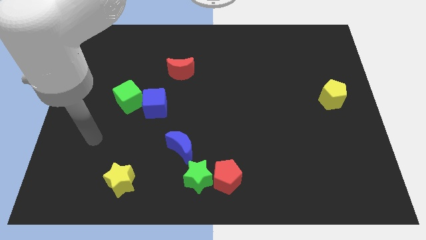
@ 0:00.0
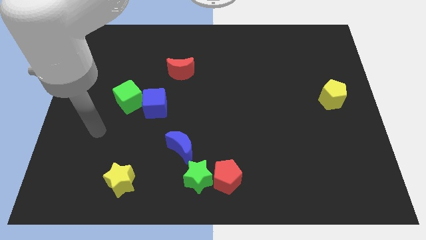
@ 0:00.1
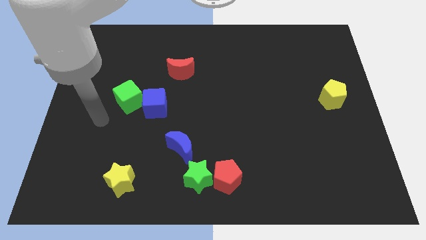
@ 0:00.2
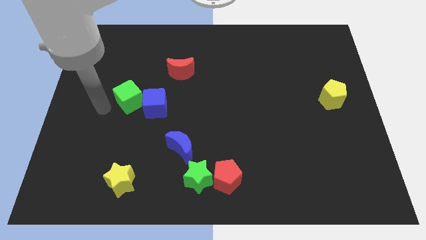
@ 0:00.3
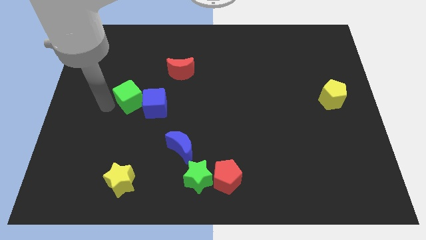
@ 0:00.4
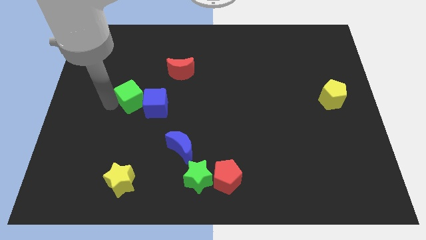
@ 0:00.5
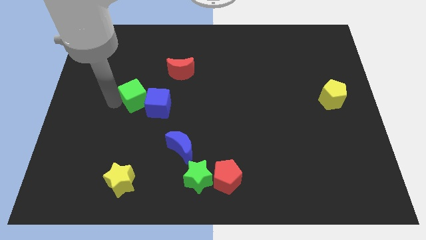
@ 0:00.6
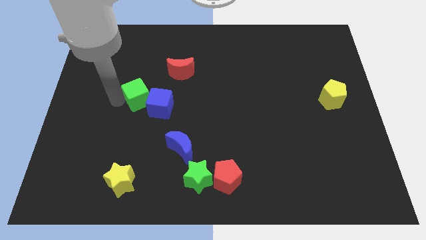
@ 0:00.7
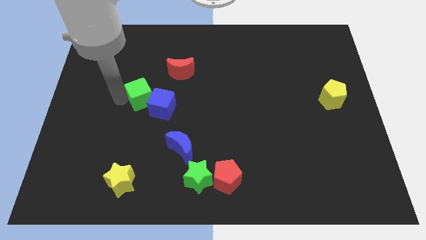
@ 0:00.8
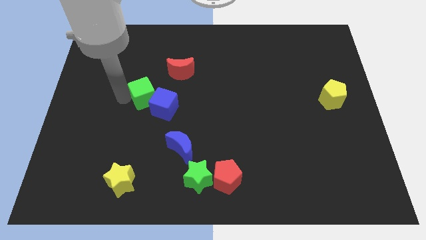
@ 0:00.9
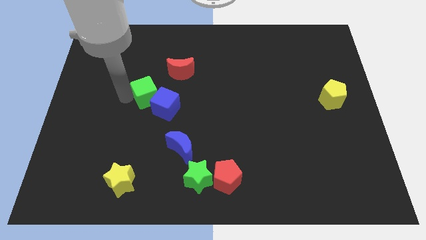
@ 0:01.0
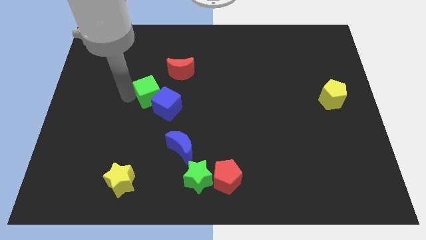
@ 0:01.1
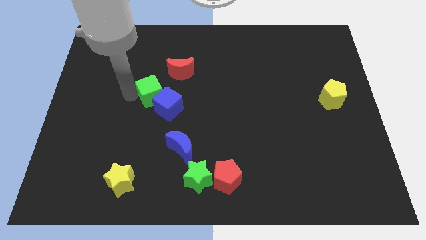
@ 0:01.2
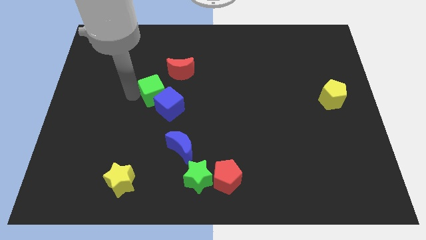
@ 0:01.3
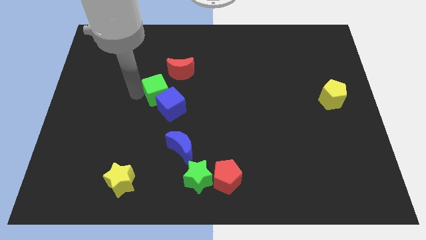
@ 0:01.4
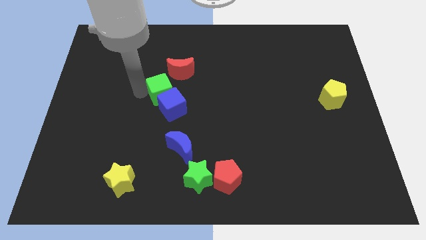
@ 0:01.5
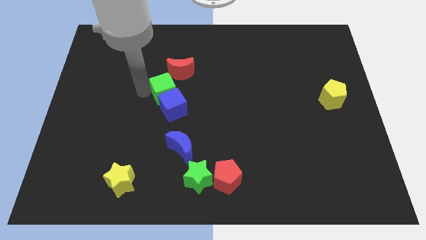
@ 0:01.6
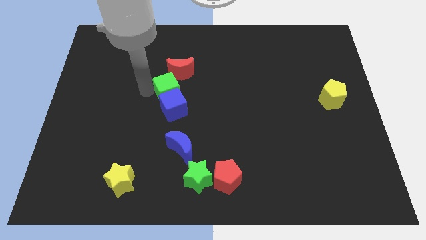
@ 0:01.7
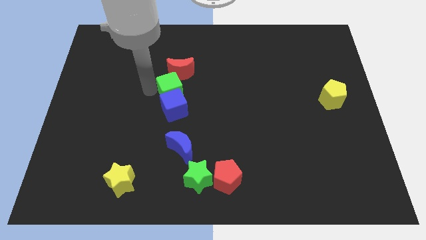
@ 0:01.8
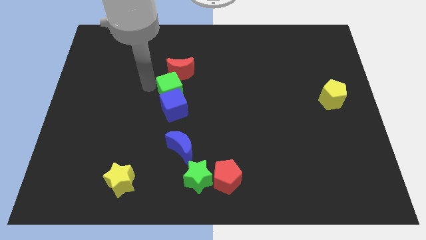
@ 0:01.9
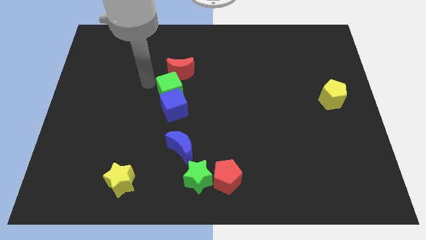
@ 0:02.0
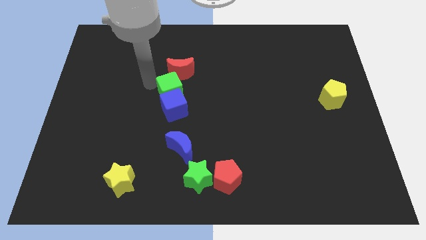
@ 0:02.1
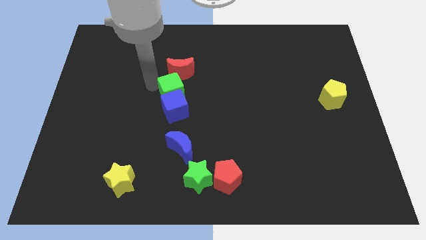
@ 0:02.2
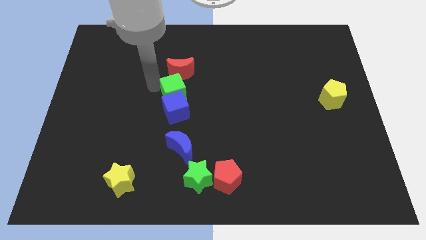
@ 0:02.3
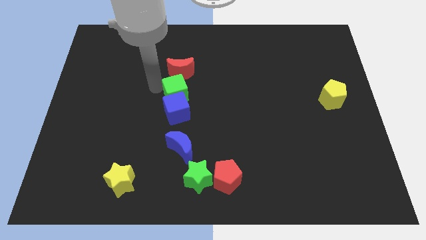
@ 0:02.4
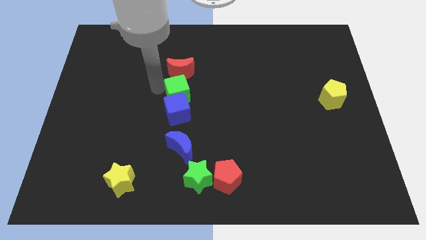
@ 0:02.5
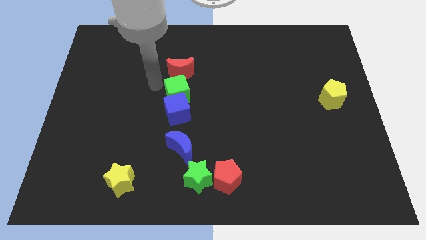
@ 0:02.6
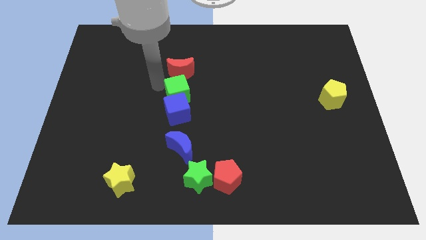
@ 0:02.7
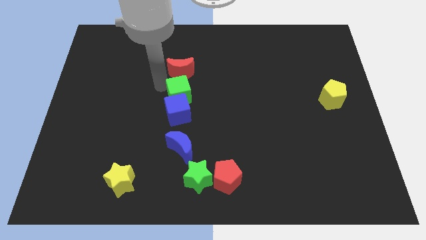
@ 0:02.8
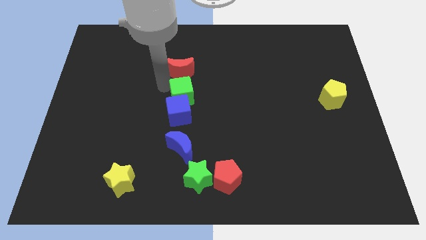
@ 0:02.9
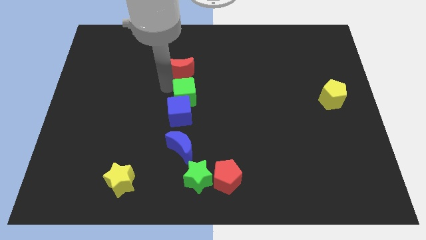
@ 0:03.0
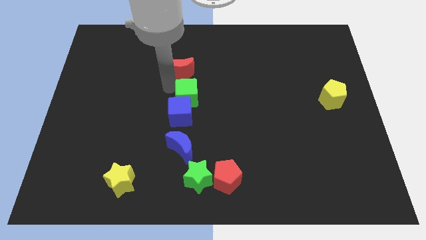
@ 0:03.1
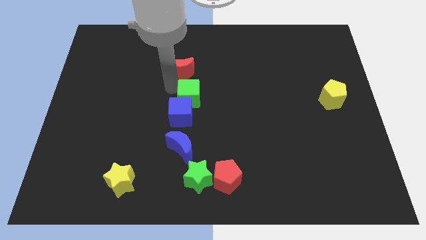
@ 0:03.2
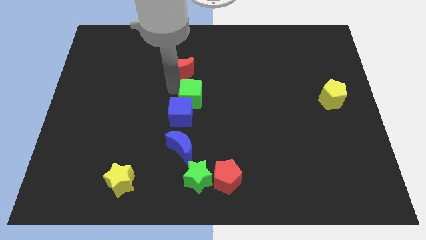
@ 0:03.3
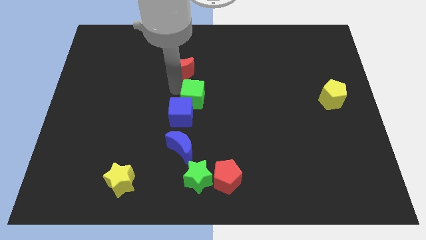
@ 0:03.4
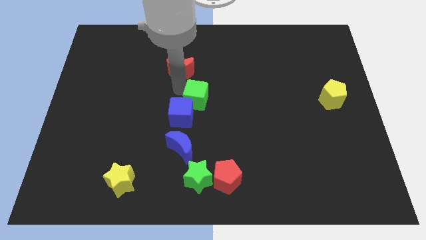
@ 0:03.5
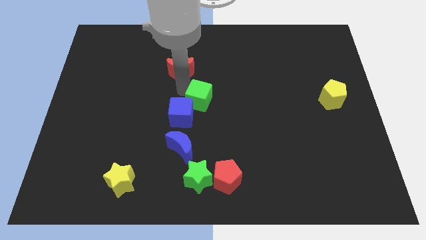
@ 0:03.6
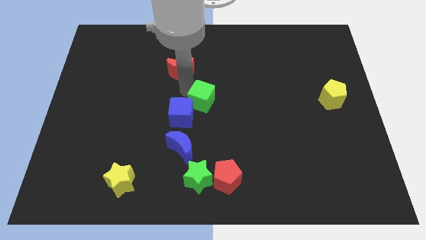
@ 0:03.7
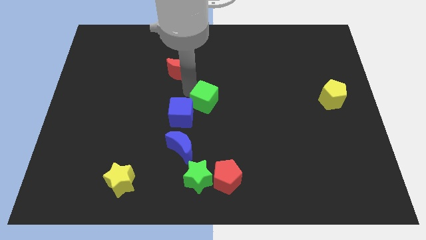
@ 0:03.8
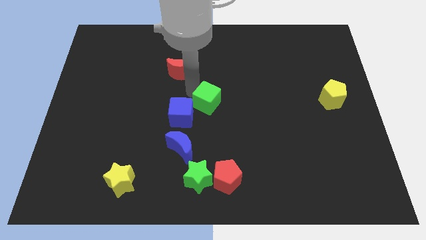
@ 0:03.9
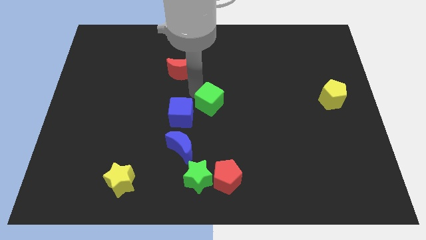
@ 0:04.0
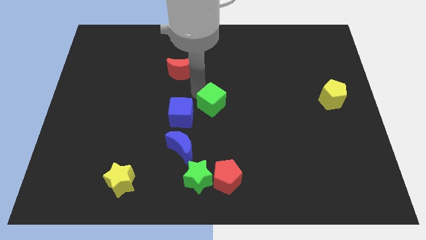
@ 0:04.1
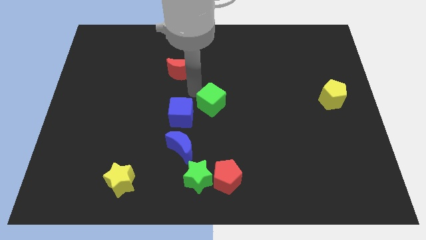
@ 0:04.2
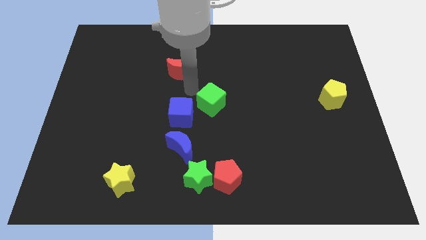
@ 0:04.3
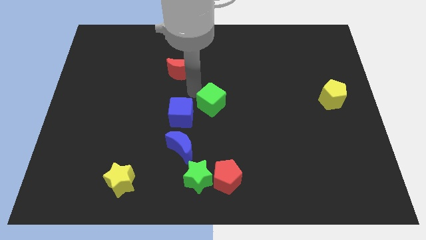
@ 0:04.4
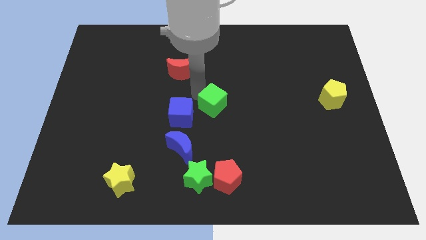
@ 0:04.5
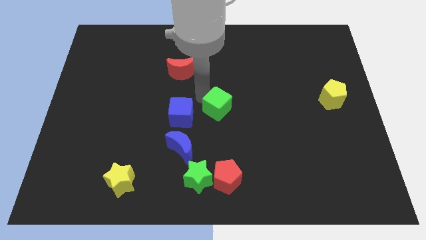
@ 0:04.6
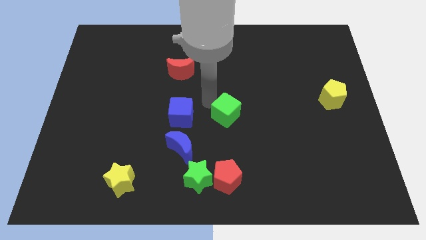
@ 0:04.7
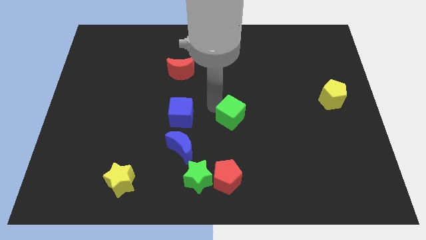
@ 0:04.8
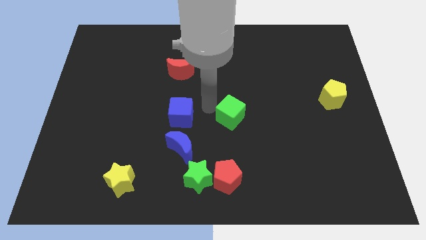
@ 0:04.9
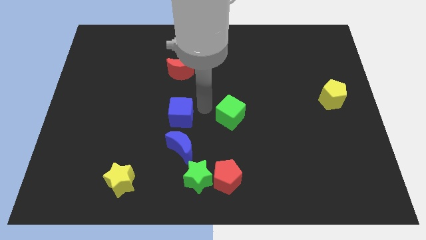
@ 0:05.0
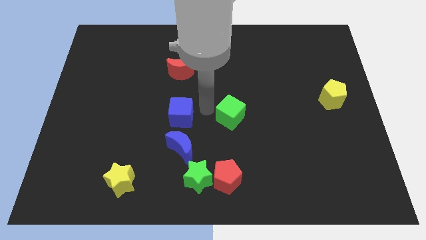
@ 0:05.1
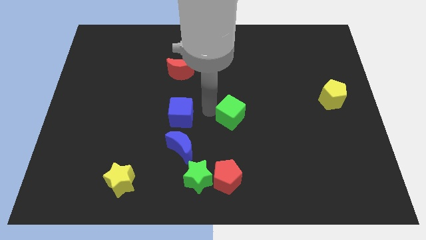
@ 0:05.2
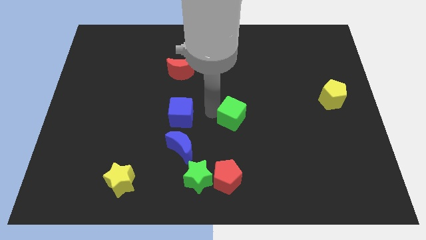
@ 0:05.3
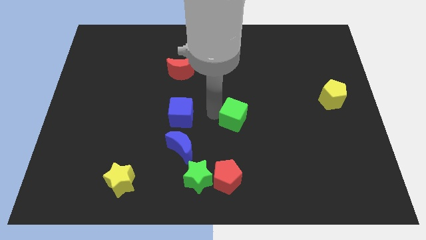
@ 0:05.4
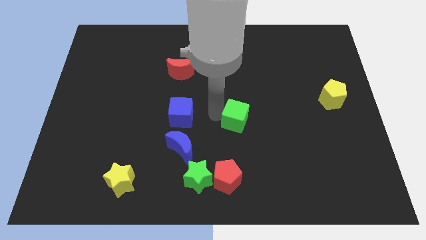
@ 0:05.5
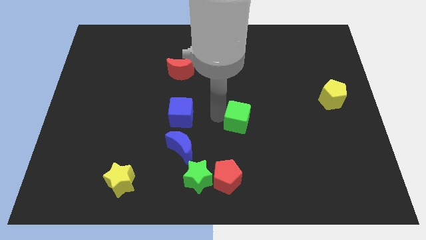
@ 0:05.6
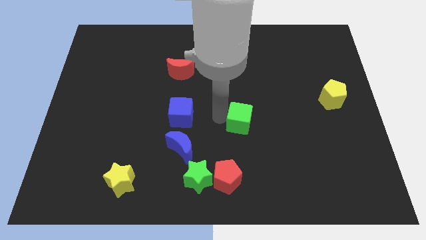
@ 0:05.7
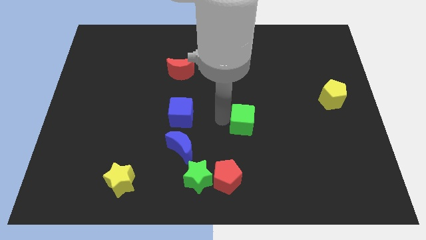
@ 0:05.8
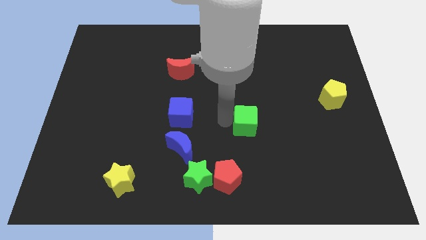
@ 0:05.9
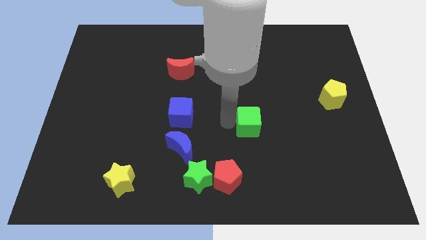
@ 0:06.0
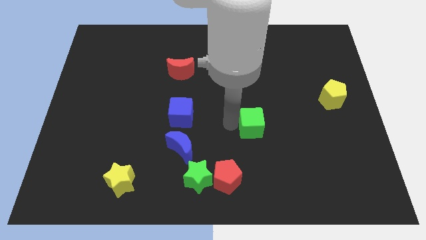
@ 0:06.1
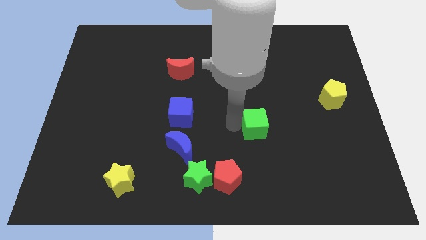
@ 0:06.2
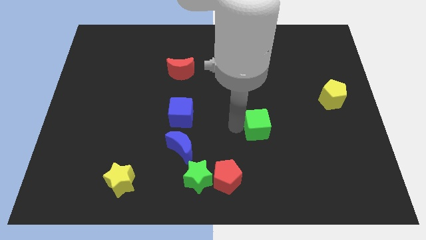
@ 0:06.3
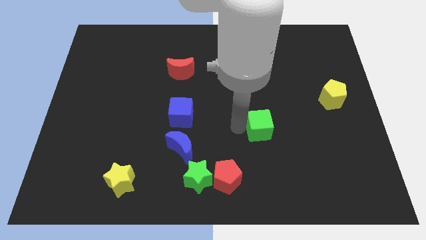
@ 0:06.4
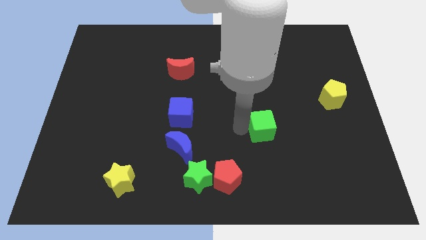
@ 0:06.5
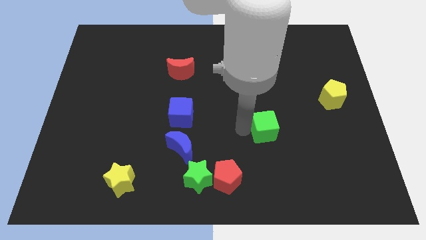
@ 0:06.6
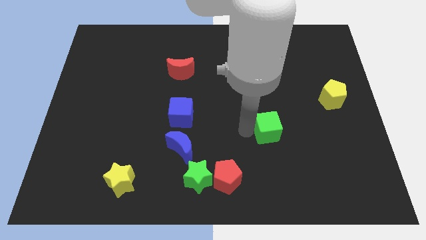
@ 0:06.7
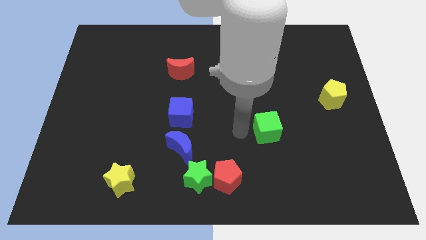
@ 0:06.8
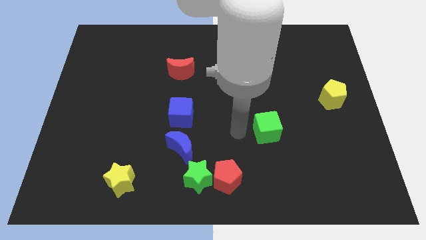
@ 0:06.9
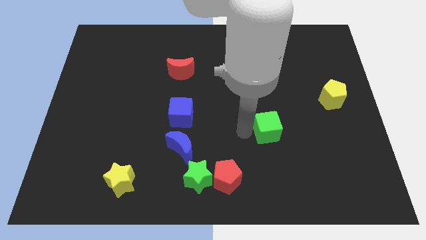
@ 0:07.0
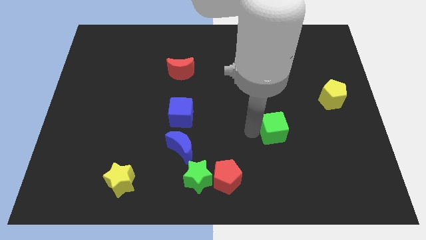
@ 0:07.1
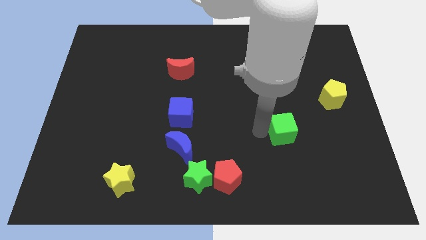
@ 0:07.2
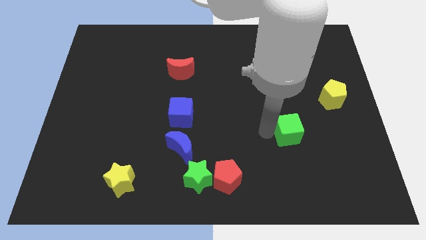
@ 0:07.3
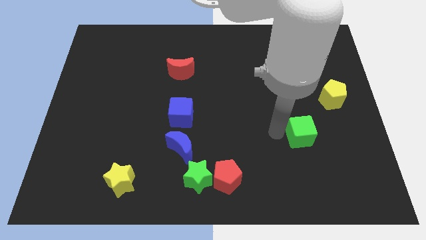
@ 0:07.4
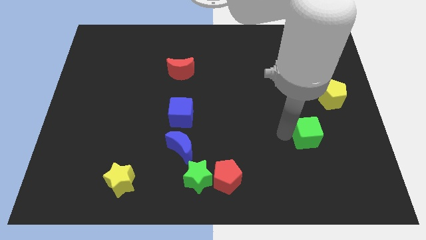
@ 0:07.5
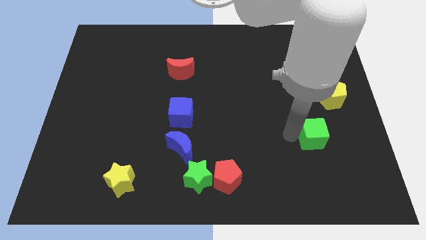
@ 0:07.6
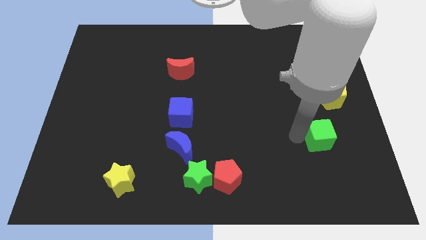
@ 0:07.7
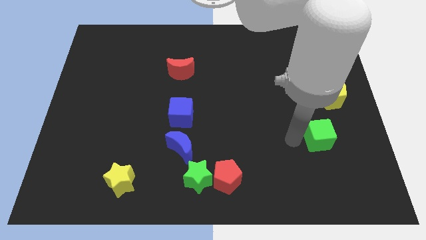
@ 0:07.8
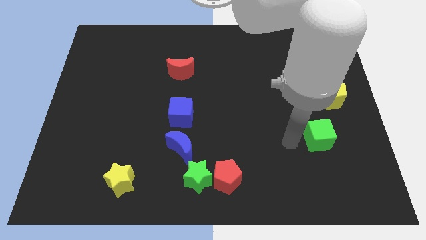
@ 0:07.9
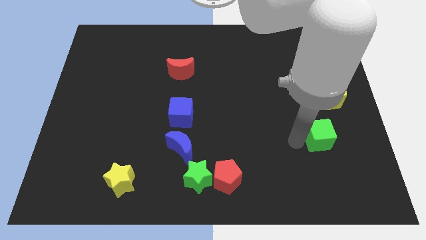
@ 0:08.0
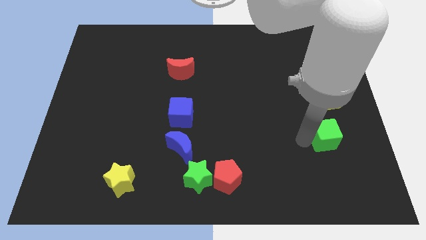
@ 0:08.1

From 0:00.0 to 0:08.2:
push the green cube to the bottom of the yellow pentagon
